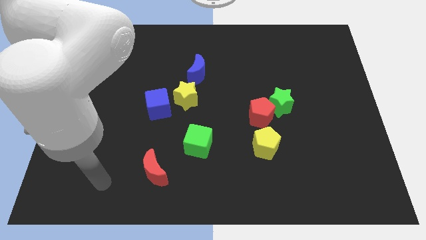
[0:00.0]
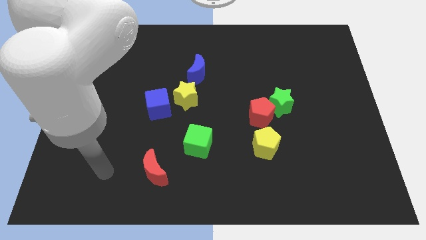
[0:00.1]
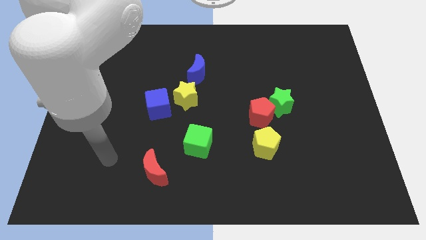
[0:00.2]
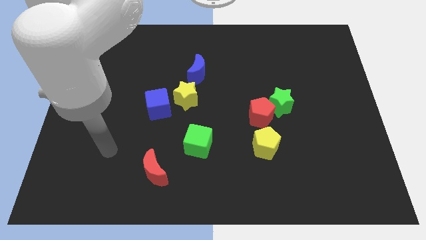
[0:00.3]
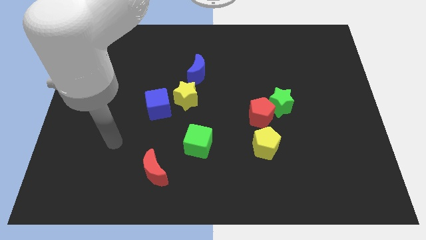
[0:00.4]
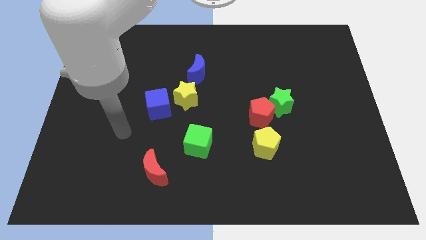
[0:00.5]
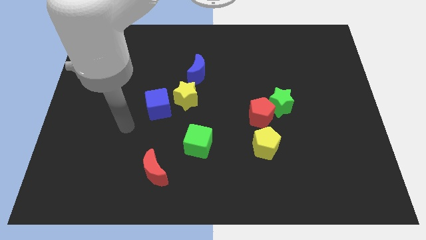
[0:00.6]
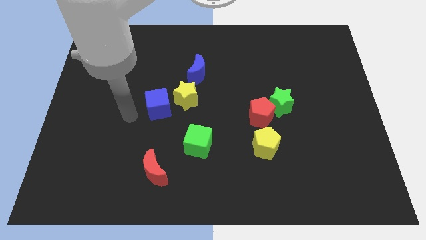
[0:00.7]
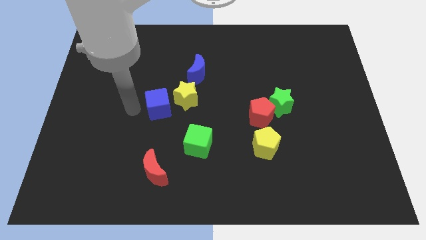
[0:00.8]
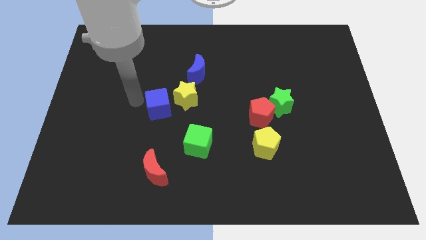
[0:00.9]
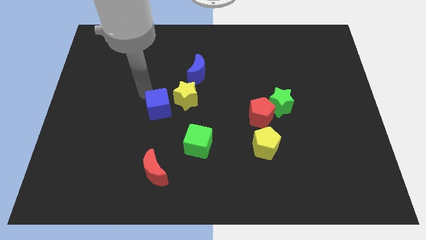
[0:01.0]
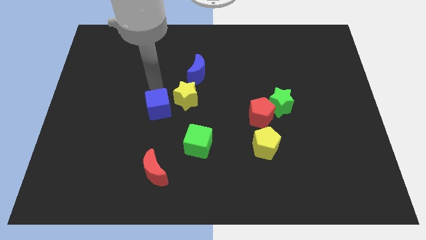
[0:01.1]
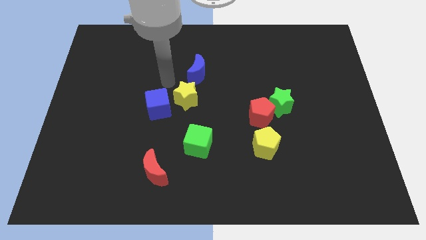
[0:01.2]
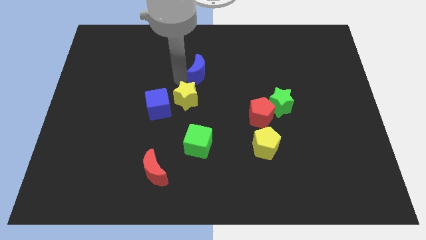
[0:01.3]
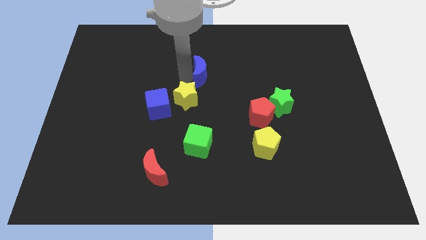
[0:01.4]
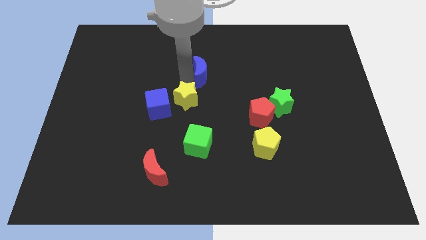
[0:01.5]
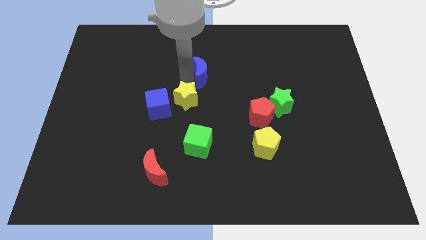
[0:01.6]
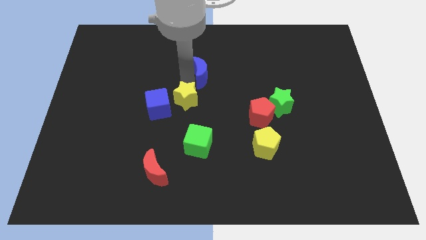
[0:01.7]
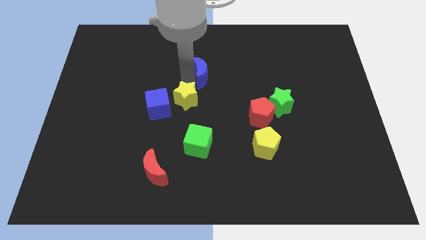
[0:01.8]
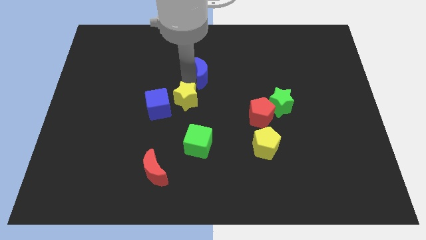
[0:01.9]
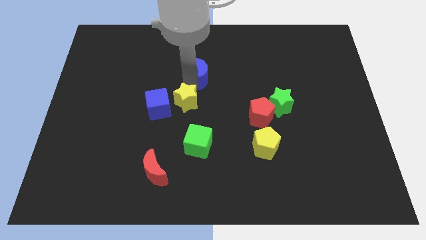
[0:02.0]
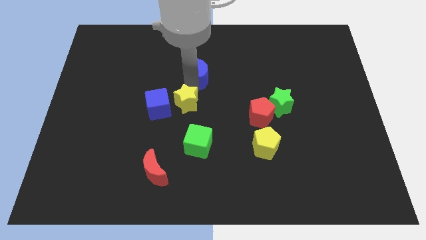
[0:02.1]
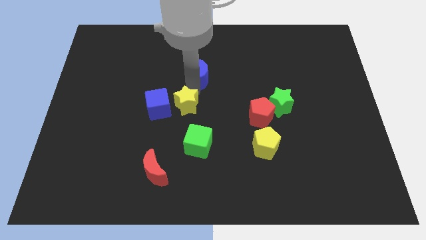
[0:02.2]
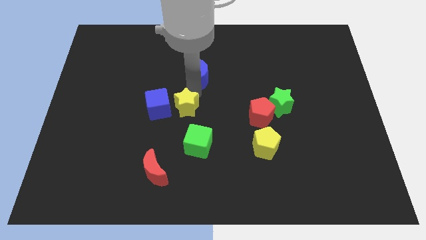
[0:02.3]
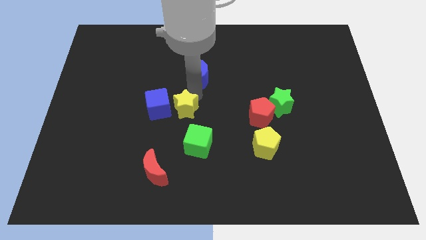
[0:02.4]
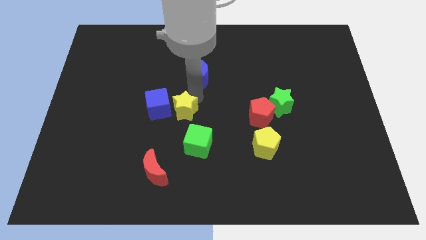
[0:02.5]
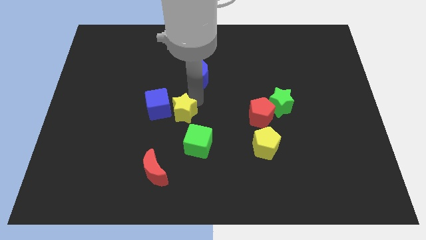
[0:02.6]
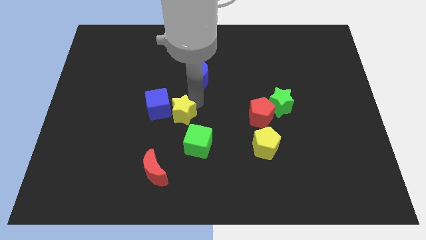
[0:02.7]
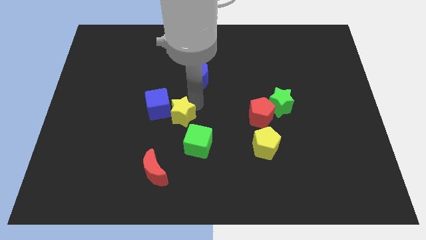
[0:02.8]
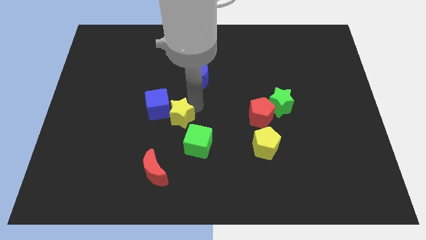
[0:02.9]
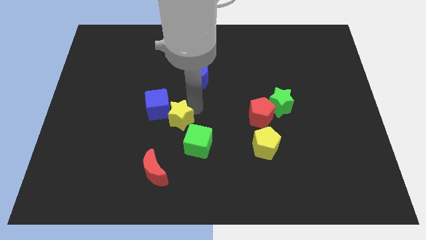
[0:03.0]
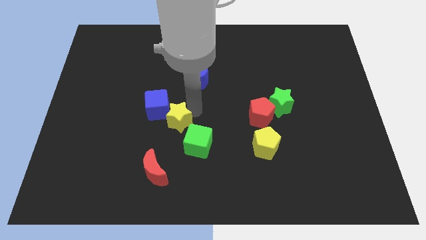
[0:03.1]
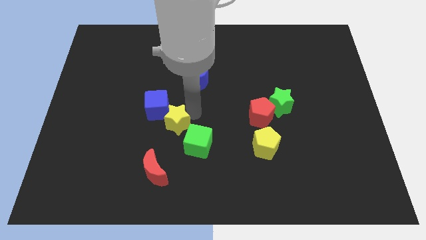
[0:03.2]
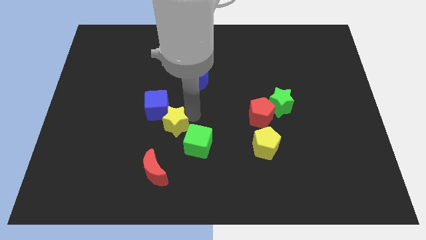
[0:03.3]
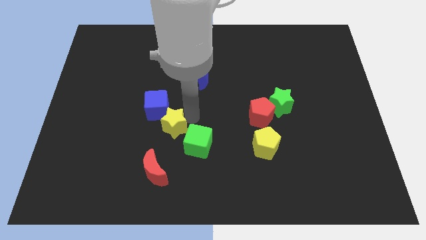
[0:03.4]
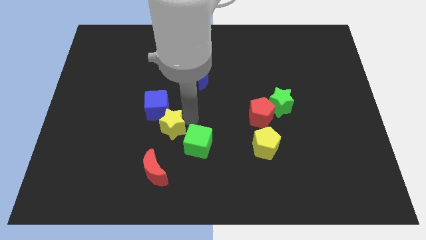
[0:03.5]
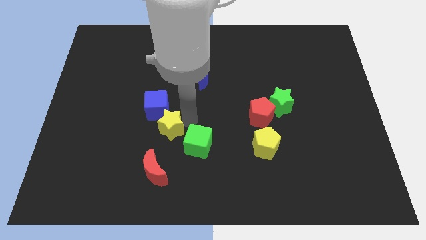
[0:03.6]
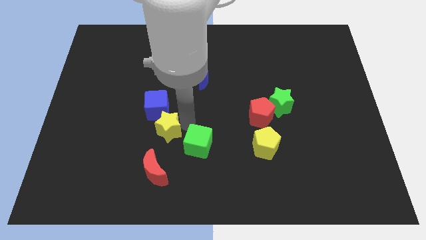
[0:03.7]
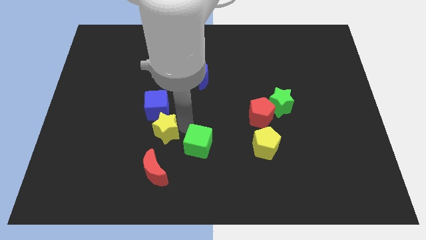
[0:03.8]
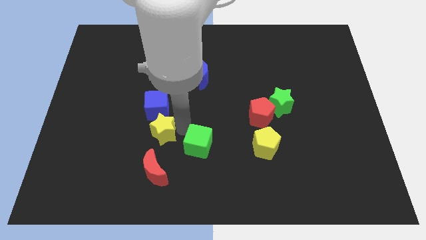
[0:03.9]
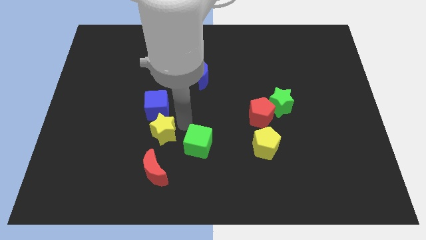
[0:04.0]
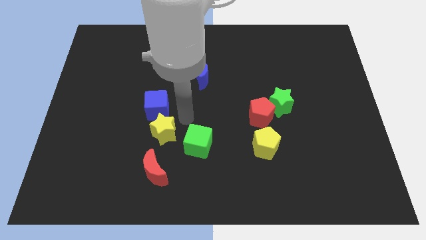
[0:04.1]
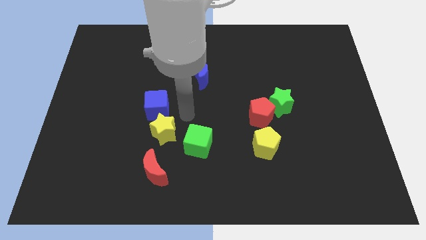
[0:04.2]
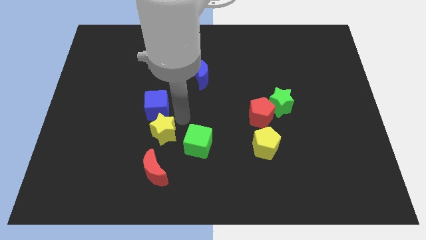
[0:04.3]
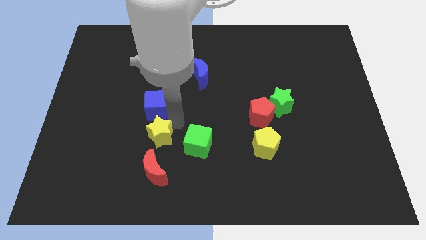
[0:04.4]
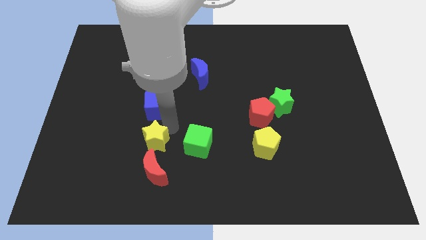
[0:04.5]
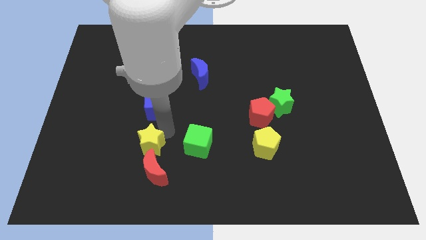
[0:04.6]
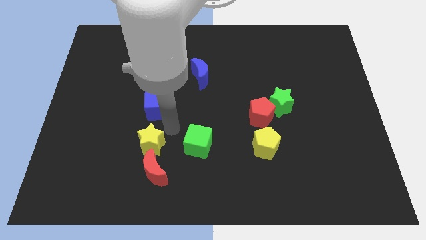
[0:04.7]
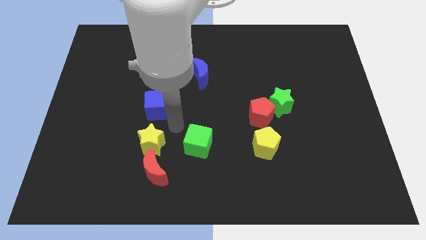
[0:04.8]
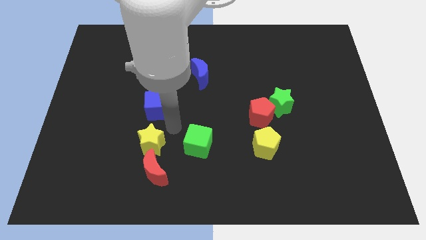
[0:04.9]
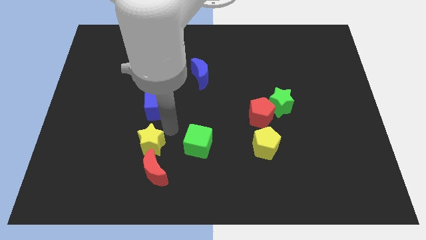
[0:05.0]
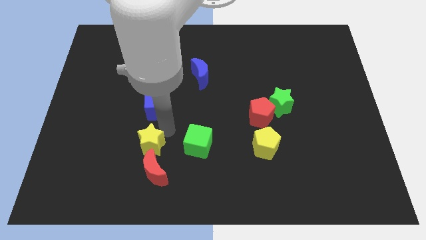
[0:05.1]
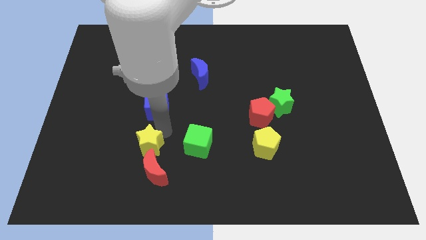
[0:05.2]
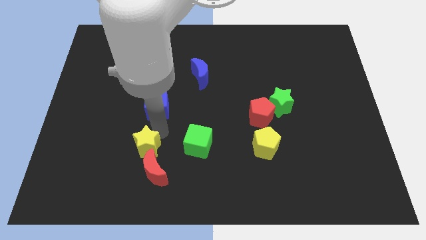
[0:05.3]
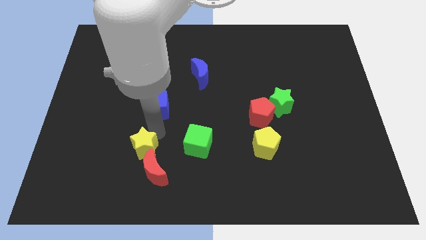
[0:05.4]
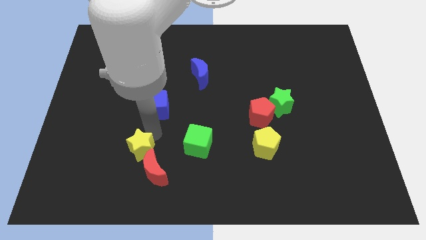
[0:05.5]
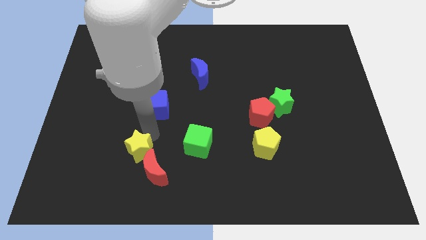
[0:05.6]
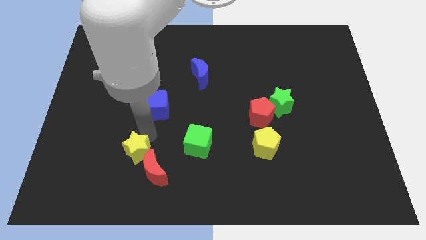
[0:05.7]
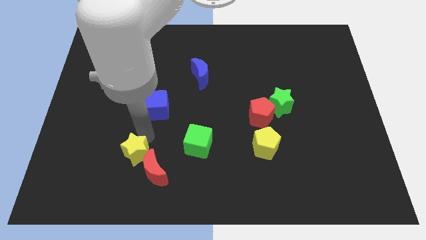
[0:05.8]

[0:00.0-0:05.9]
put the yellow star left of the red moon

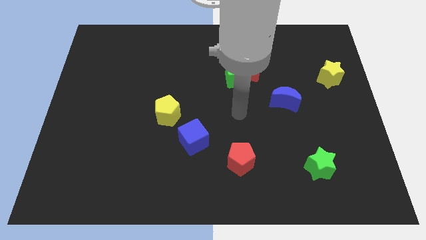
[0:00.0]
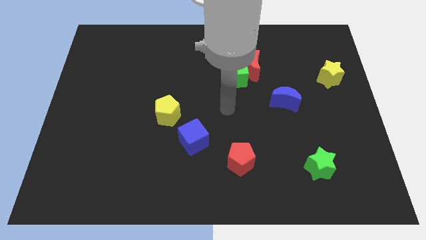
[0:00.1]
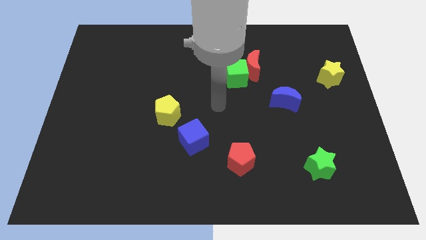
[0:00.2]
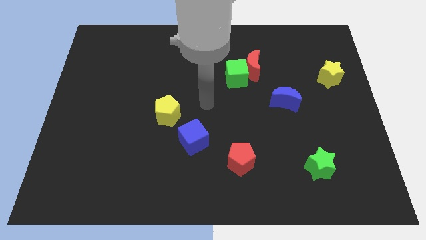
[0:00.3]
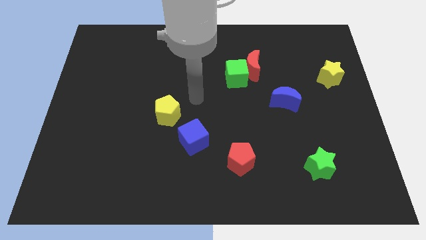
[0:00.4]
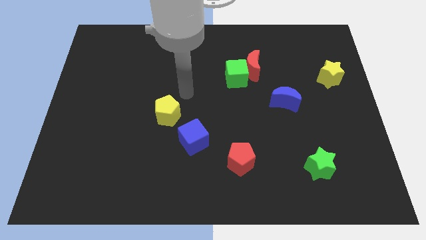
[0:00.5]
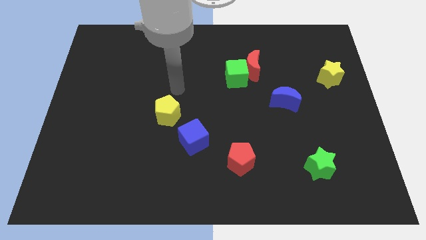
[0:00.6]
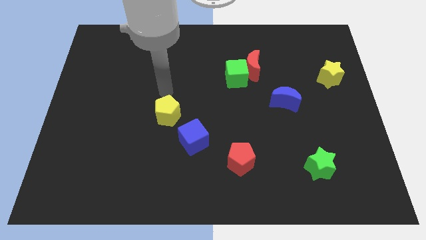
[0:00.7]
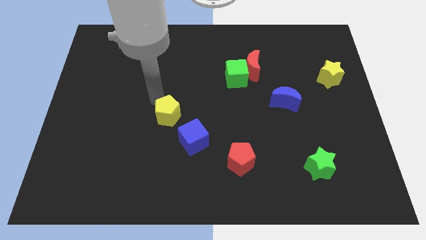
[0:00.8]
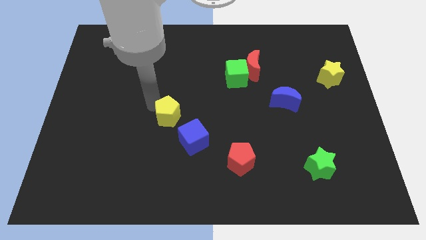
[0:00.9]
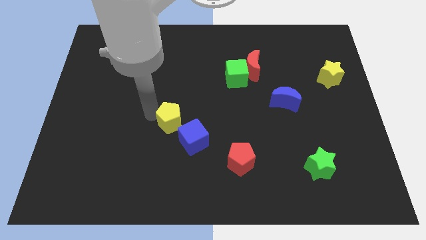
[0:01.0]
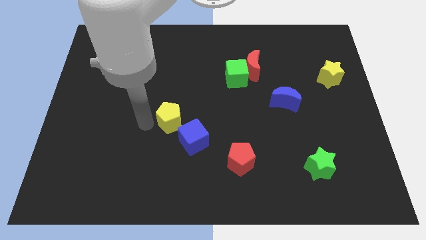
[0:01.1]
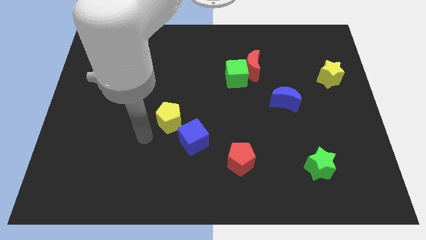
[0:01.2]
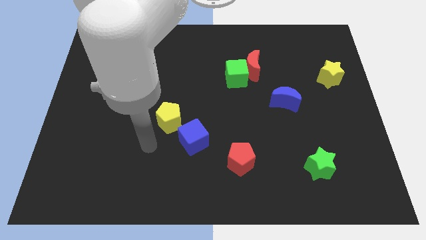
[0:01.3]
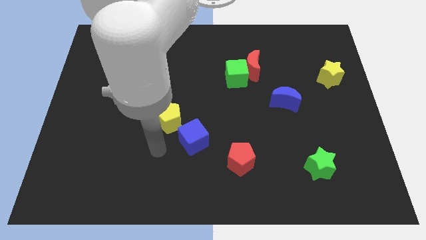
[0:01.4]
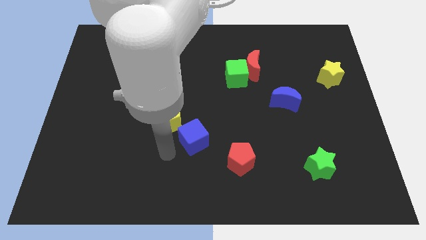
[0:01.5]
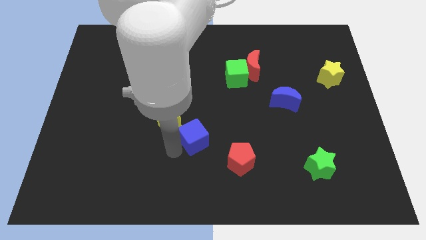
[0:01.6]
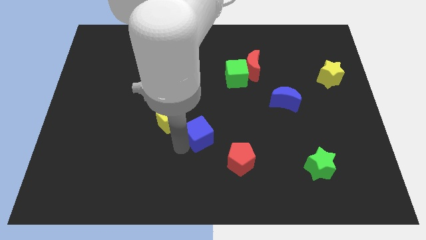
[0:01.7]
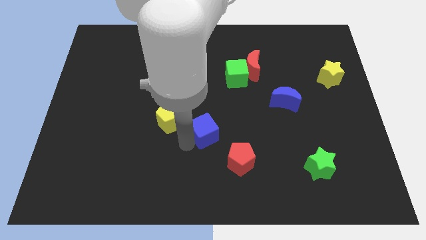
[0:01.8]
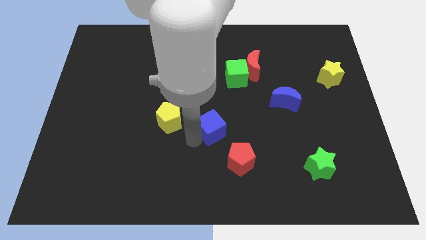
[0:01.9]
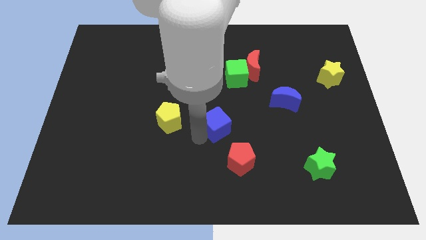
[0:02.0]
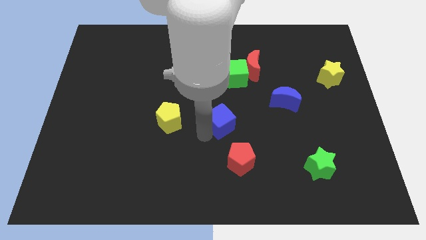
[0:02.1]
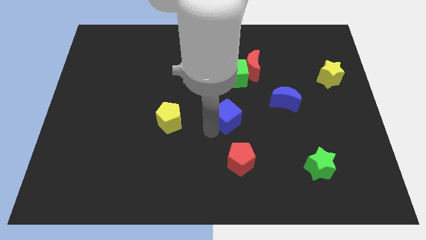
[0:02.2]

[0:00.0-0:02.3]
slide the blue cube below the green cube

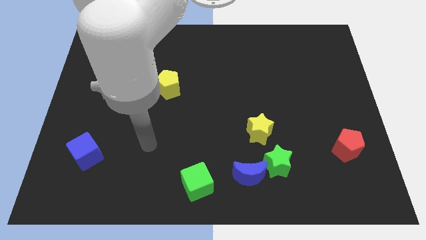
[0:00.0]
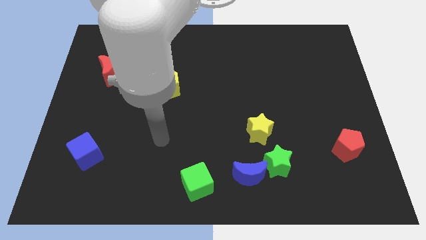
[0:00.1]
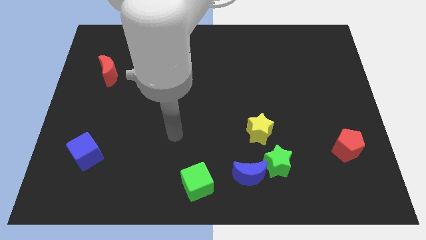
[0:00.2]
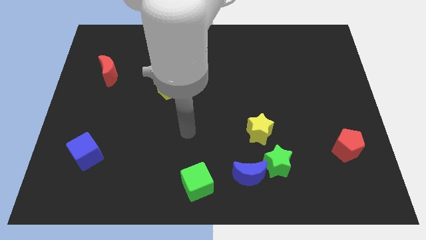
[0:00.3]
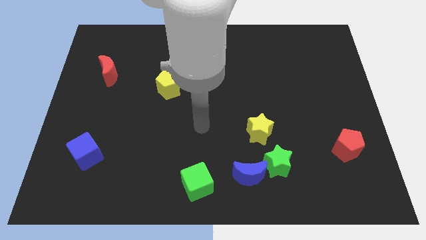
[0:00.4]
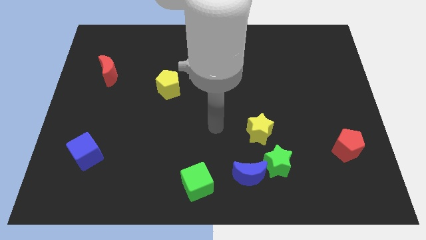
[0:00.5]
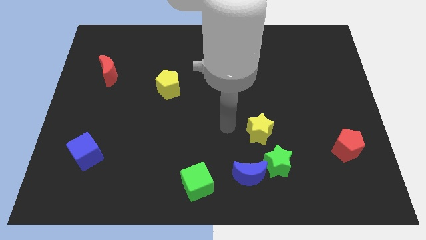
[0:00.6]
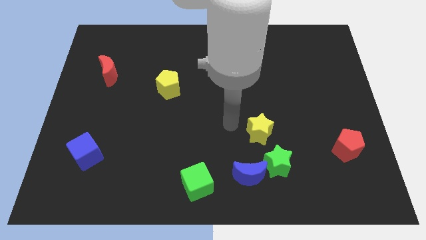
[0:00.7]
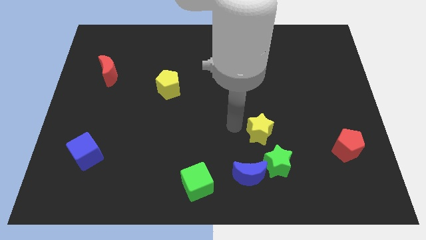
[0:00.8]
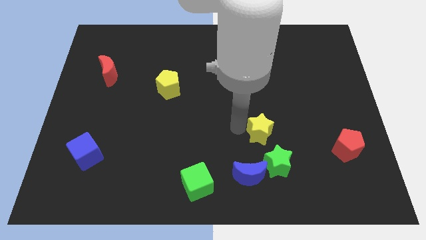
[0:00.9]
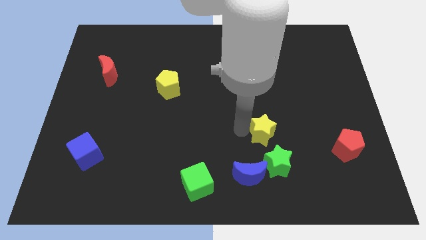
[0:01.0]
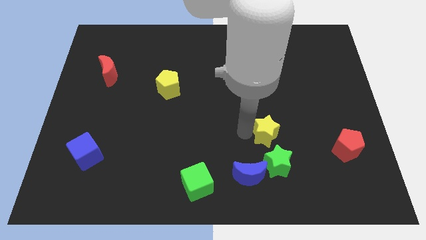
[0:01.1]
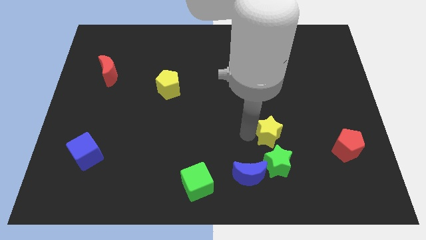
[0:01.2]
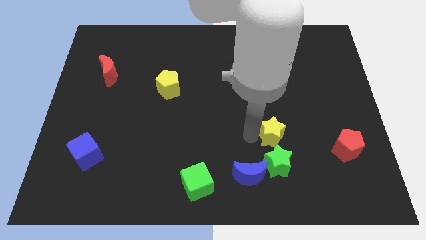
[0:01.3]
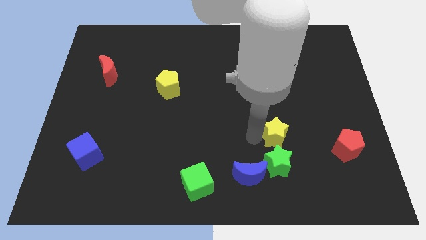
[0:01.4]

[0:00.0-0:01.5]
put the yellow star diagonally up and to the right of the green star
